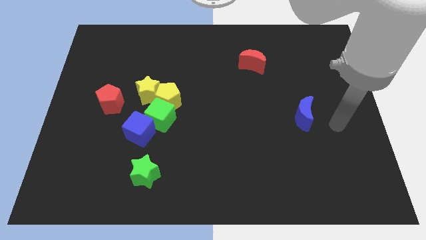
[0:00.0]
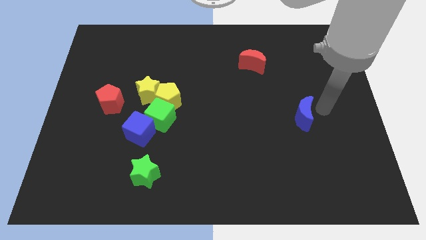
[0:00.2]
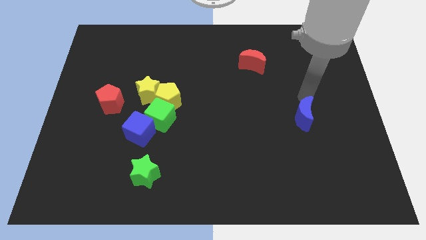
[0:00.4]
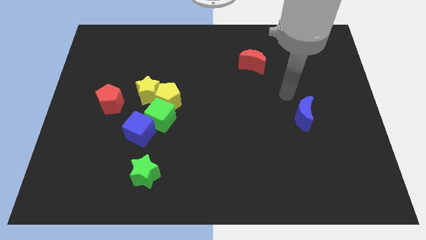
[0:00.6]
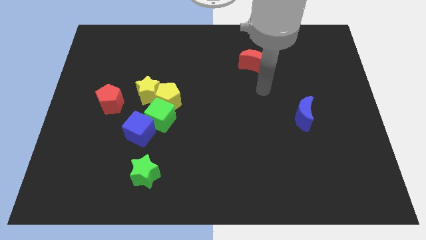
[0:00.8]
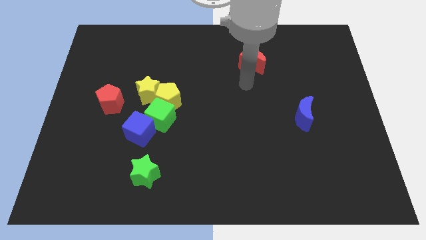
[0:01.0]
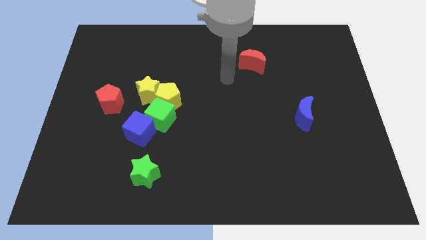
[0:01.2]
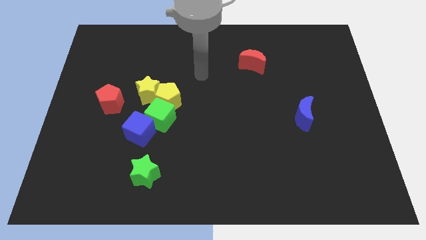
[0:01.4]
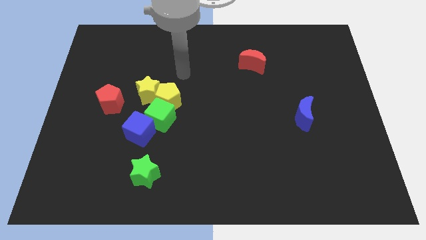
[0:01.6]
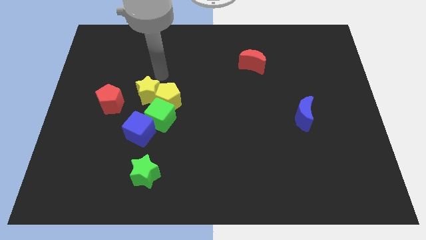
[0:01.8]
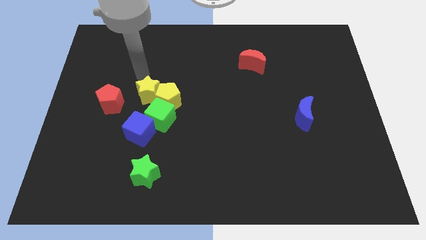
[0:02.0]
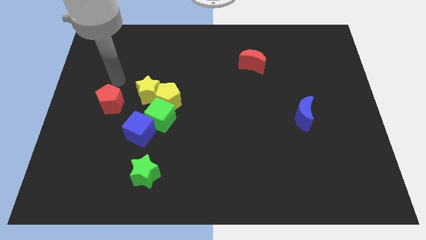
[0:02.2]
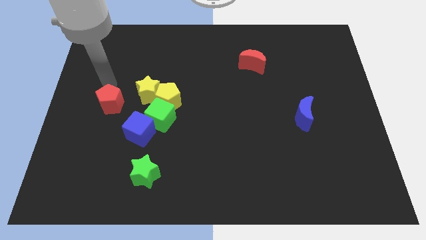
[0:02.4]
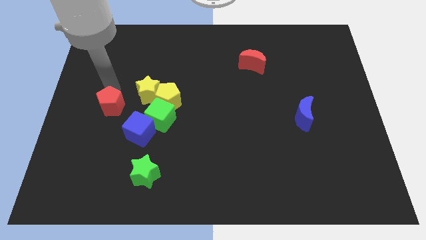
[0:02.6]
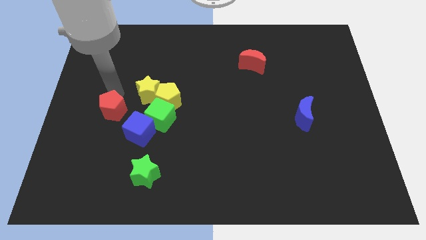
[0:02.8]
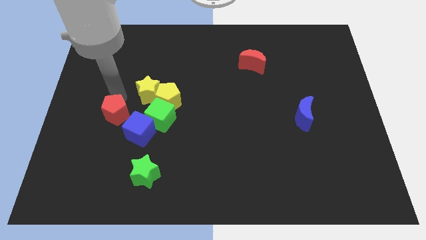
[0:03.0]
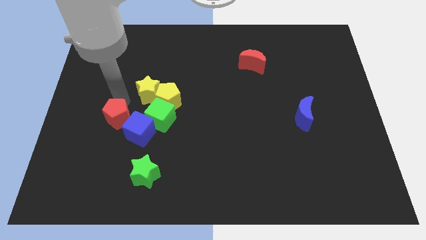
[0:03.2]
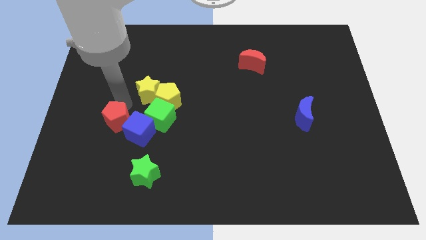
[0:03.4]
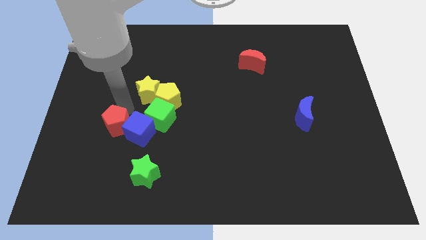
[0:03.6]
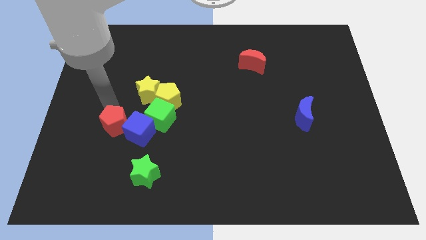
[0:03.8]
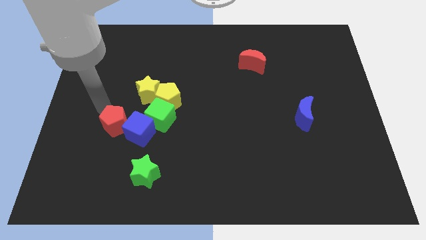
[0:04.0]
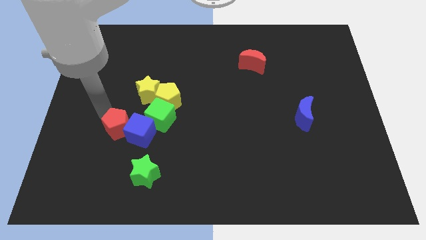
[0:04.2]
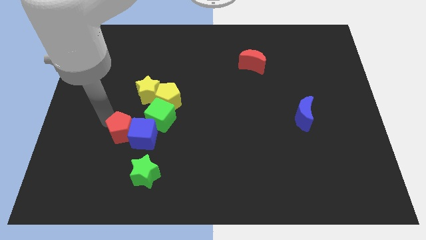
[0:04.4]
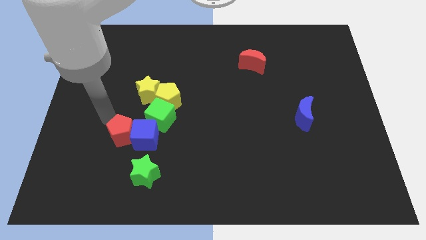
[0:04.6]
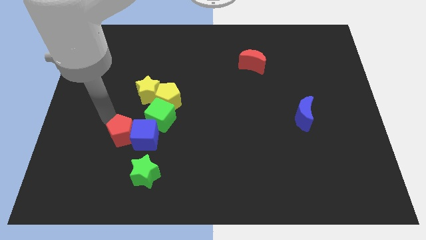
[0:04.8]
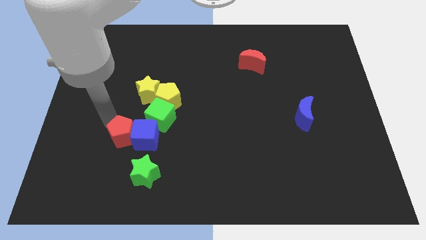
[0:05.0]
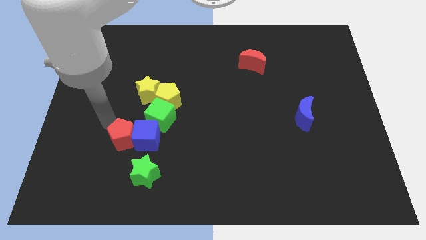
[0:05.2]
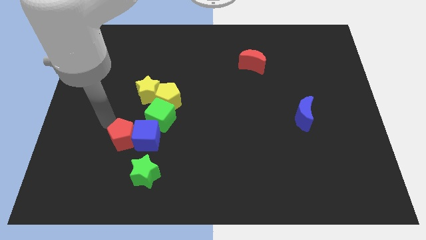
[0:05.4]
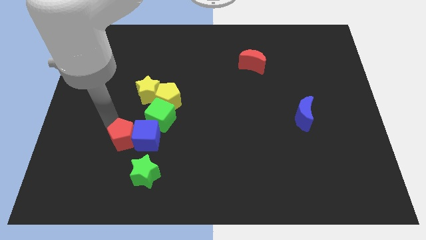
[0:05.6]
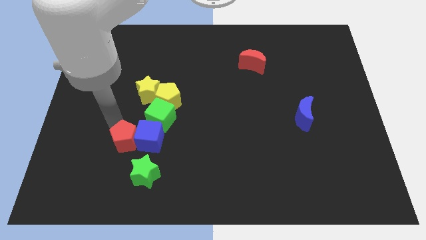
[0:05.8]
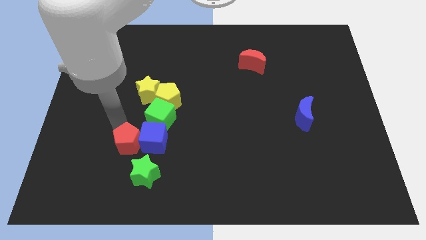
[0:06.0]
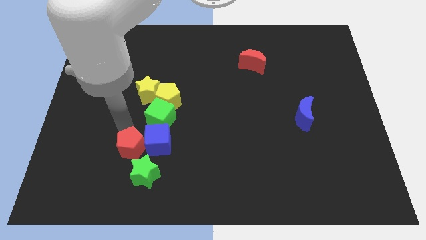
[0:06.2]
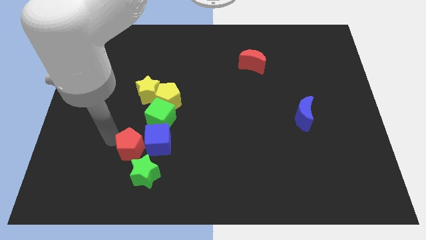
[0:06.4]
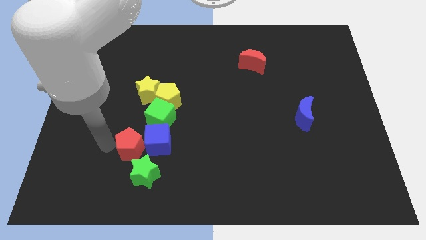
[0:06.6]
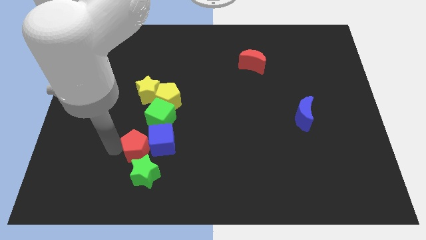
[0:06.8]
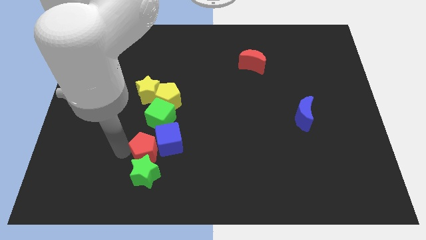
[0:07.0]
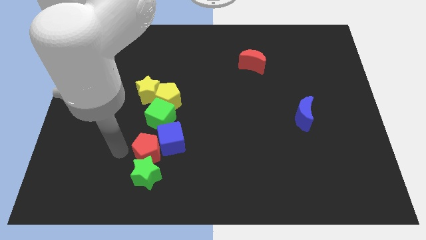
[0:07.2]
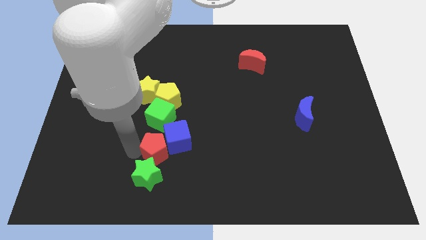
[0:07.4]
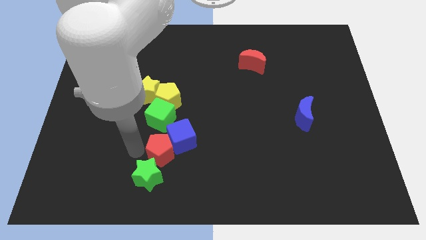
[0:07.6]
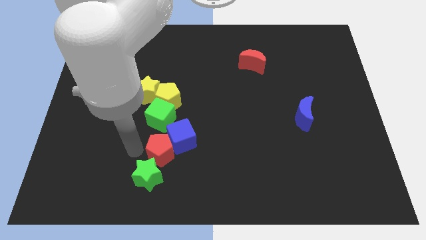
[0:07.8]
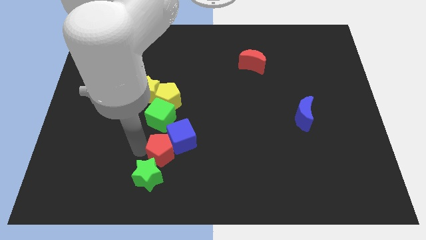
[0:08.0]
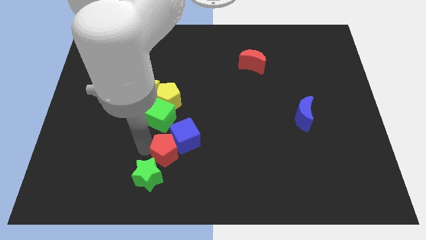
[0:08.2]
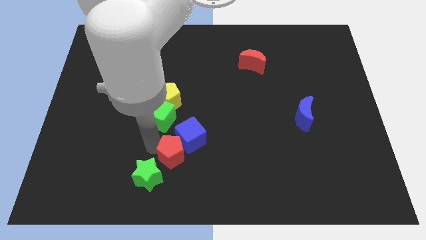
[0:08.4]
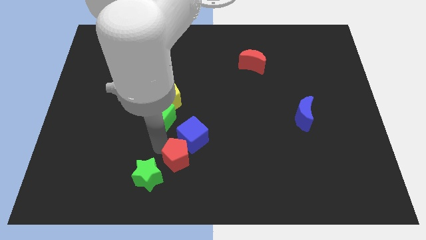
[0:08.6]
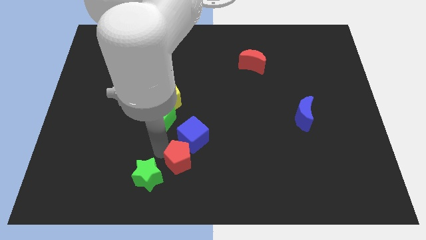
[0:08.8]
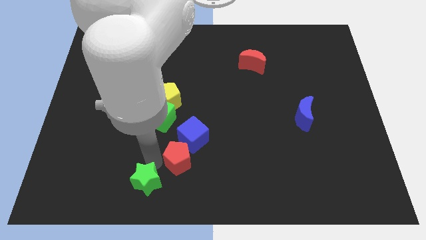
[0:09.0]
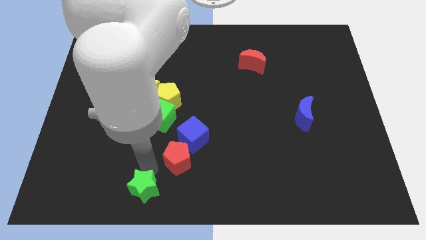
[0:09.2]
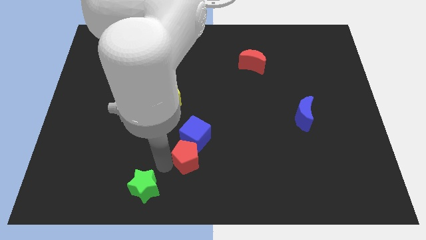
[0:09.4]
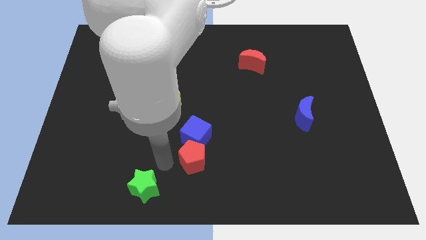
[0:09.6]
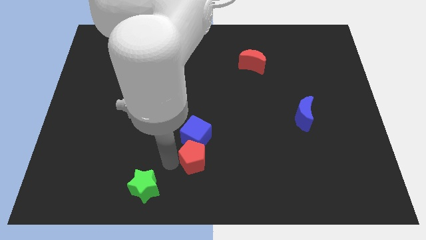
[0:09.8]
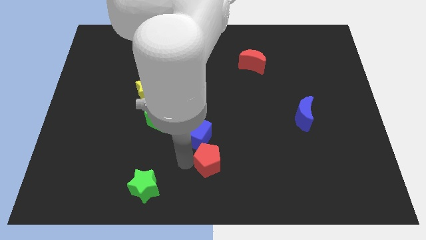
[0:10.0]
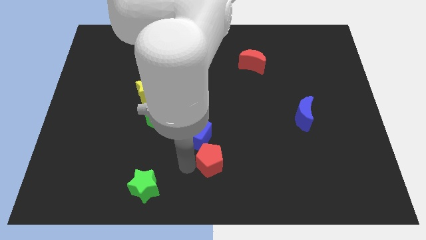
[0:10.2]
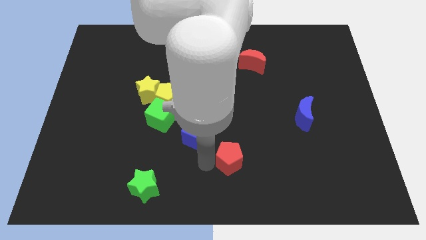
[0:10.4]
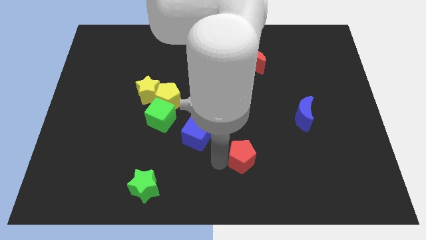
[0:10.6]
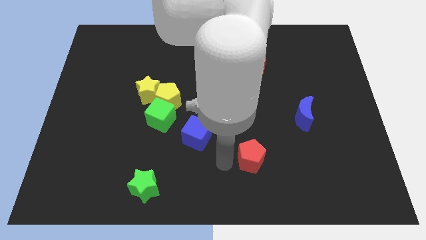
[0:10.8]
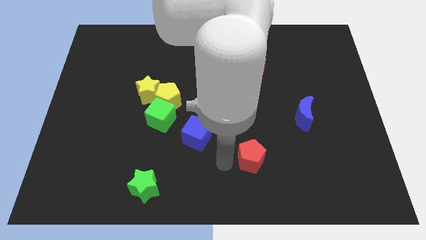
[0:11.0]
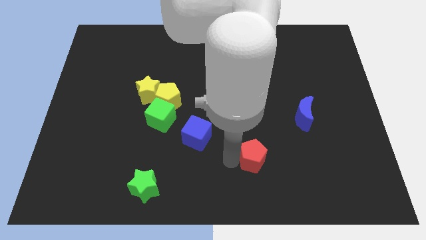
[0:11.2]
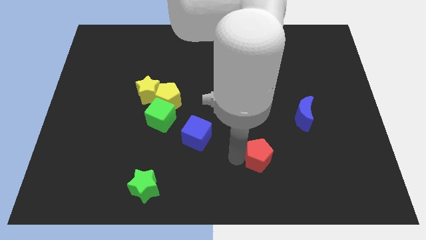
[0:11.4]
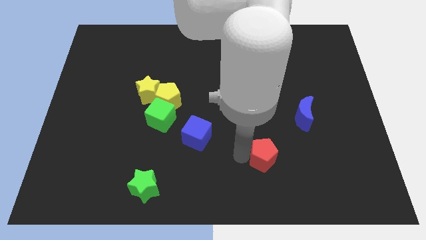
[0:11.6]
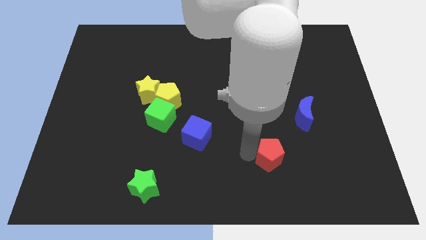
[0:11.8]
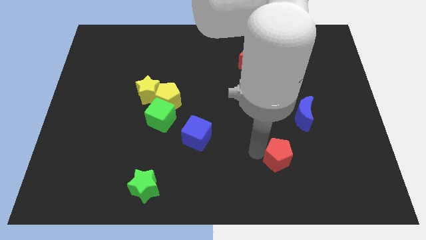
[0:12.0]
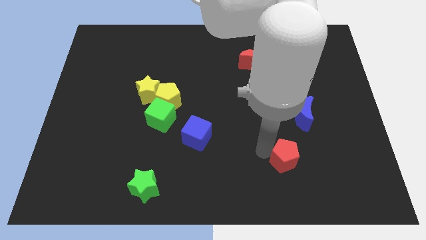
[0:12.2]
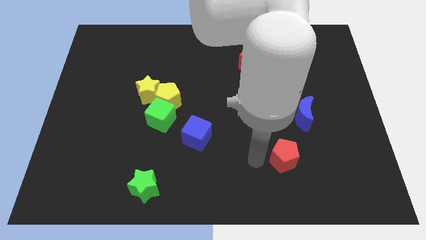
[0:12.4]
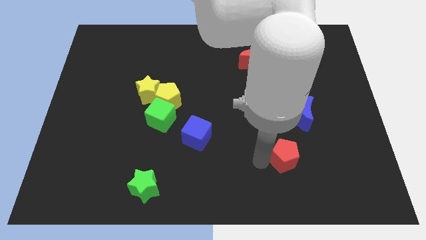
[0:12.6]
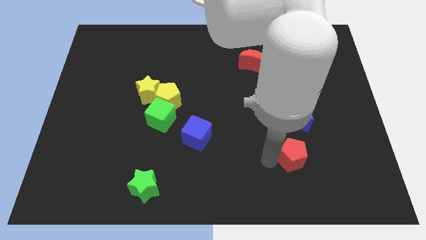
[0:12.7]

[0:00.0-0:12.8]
move the red pentagon to the bottom side of the blue moon

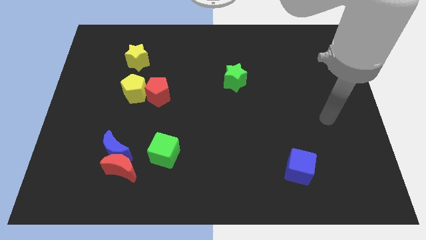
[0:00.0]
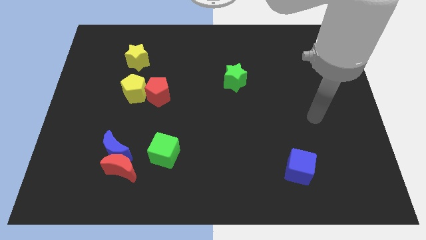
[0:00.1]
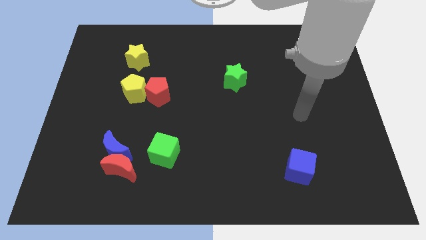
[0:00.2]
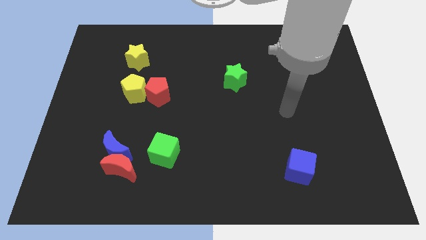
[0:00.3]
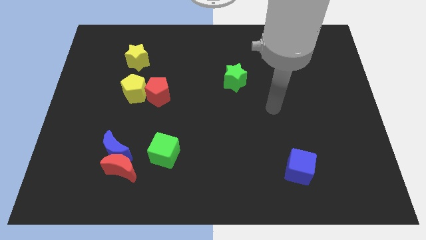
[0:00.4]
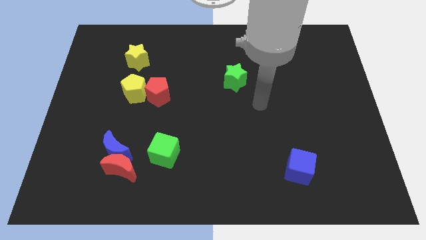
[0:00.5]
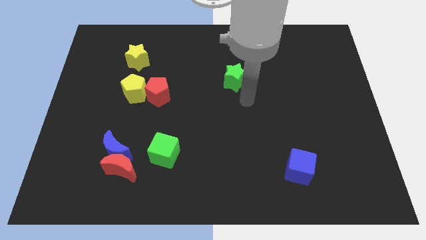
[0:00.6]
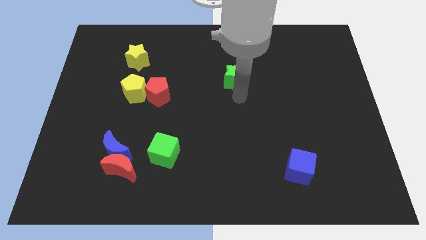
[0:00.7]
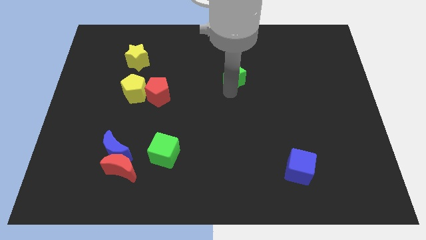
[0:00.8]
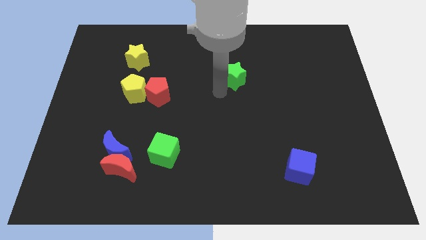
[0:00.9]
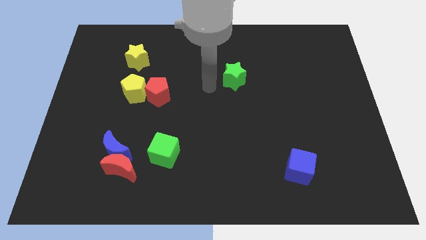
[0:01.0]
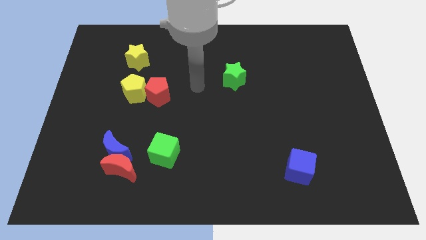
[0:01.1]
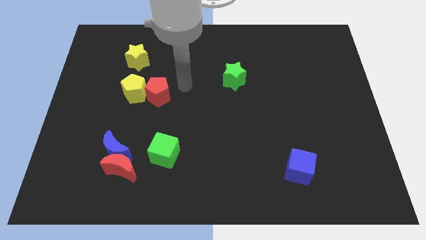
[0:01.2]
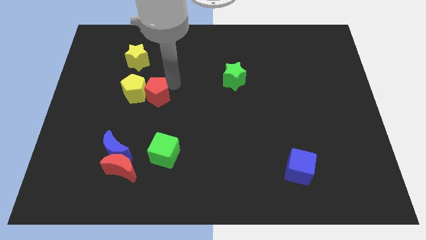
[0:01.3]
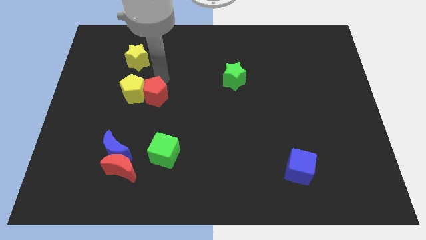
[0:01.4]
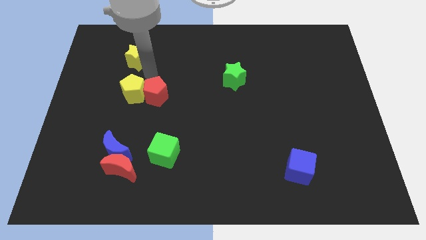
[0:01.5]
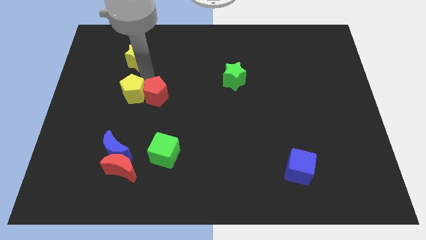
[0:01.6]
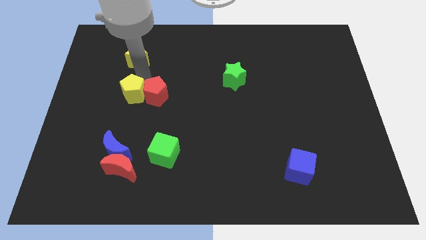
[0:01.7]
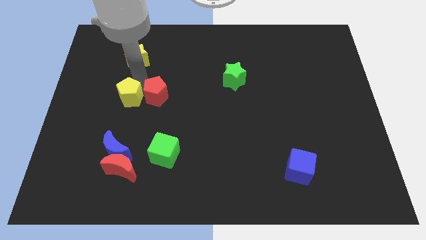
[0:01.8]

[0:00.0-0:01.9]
push the yellow pentagon to the top of the blue moon

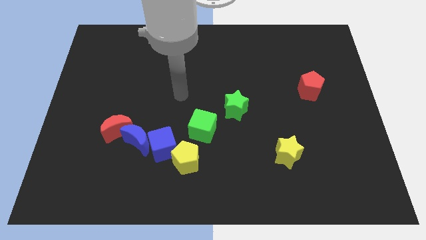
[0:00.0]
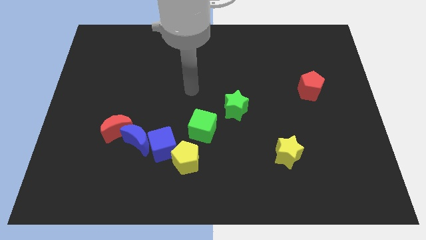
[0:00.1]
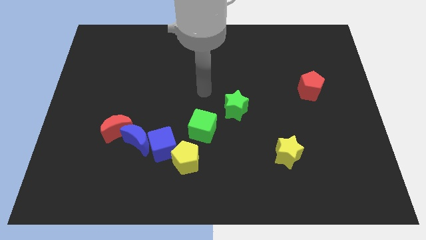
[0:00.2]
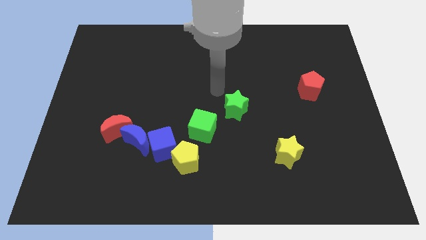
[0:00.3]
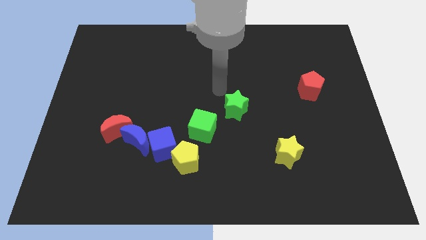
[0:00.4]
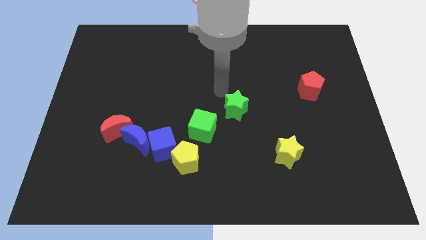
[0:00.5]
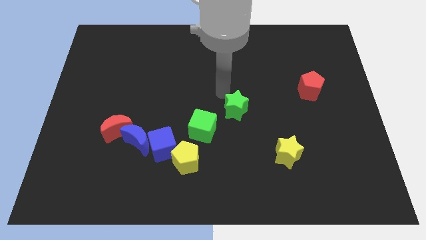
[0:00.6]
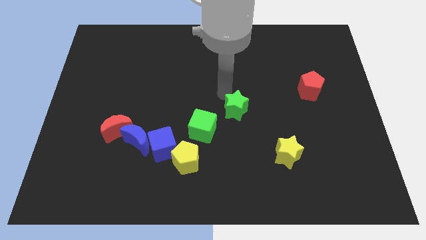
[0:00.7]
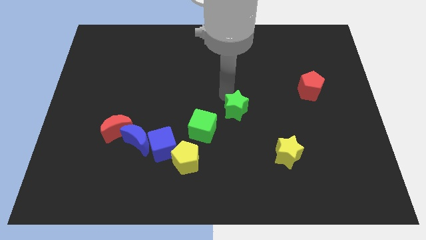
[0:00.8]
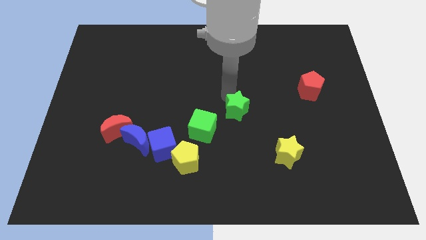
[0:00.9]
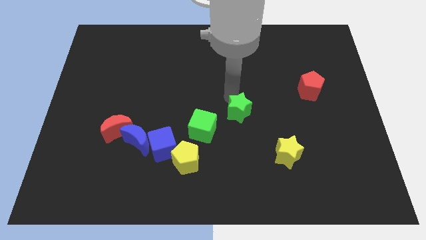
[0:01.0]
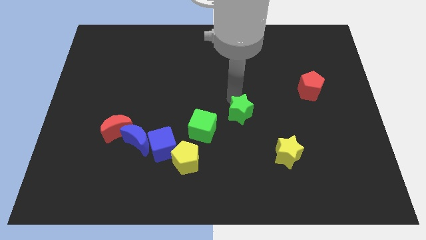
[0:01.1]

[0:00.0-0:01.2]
put the green star to the right side of the green cube
